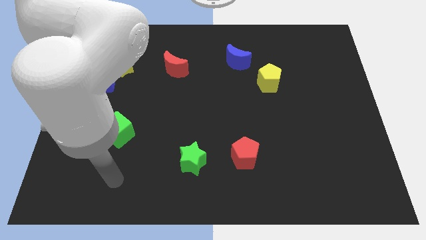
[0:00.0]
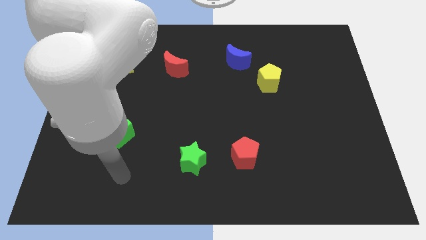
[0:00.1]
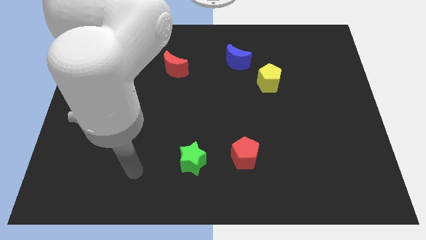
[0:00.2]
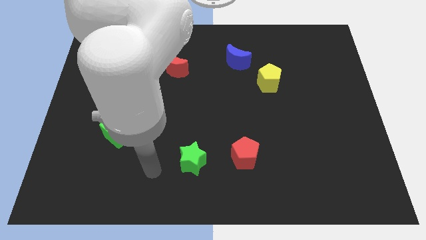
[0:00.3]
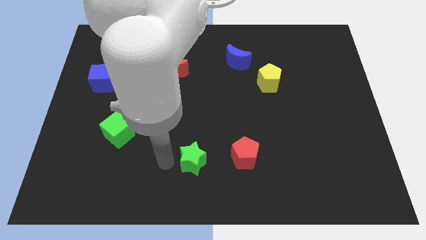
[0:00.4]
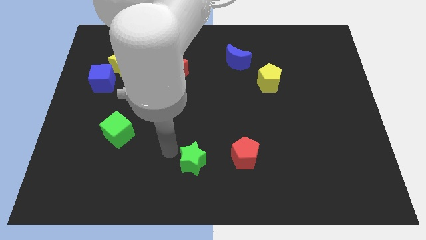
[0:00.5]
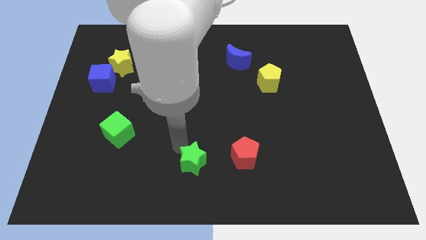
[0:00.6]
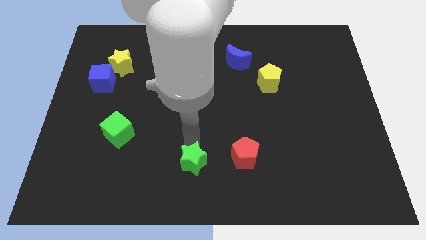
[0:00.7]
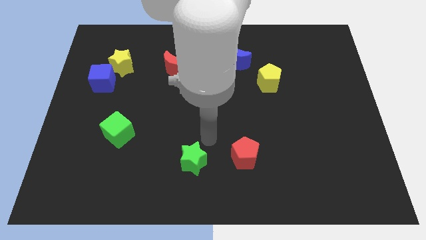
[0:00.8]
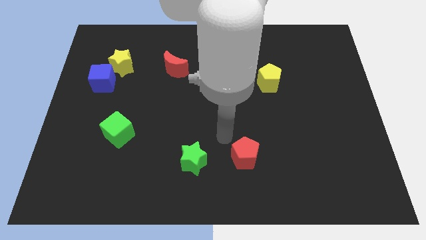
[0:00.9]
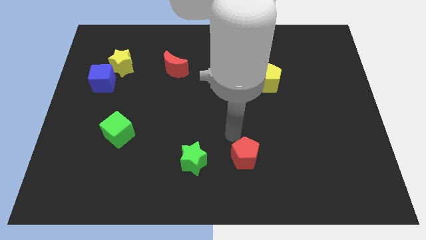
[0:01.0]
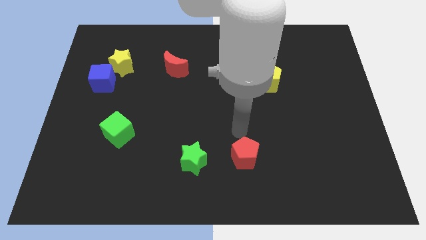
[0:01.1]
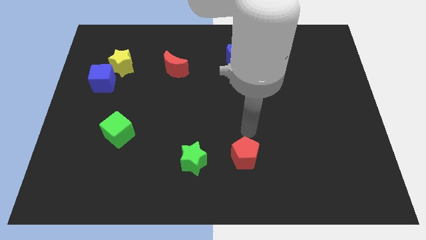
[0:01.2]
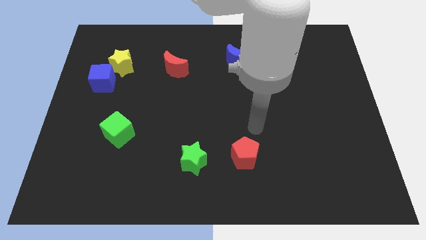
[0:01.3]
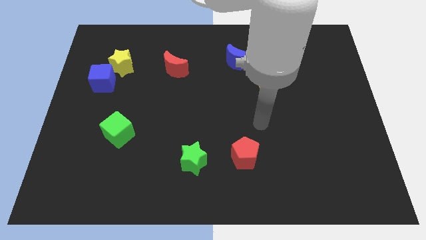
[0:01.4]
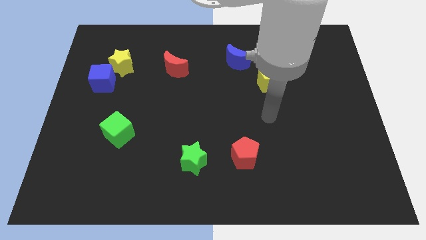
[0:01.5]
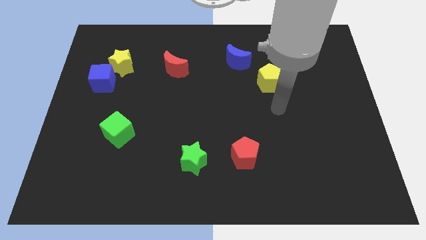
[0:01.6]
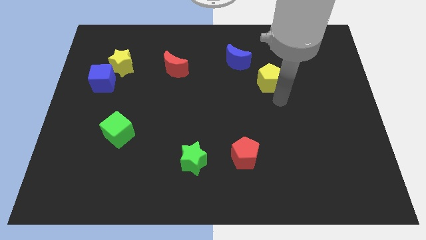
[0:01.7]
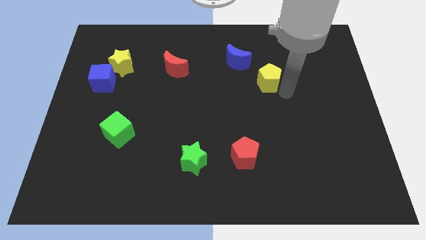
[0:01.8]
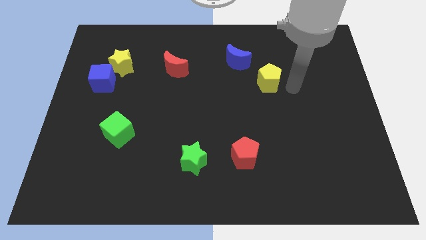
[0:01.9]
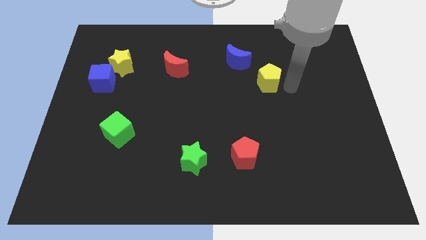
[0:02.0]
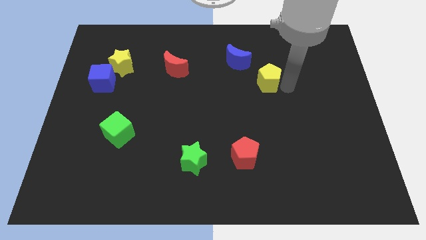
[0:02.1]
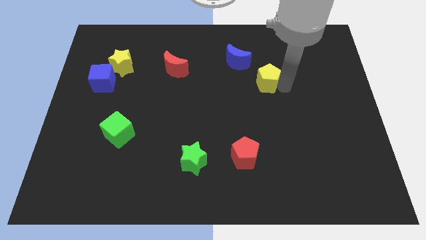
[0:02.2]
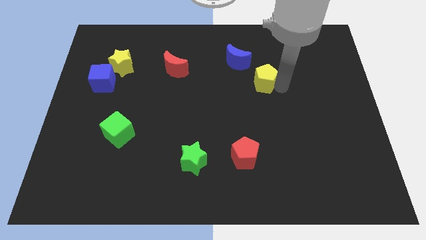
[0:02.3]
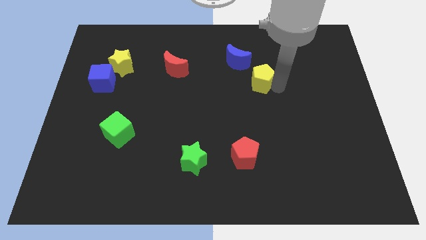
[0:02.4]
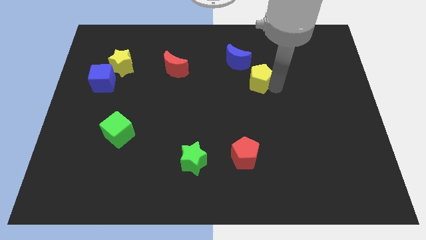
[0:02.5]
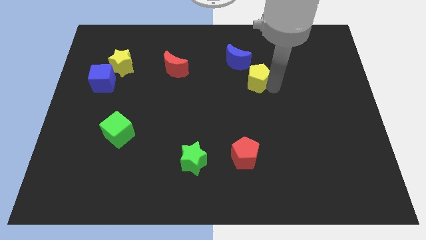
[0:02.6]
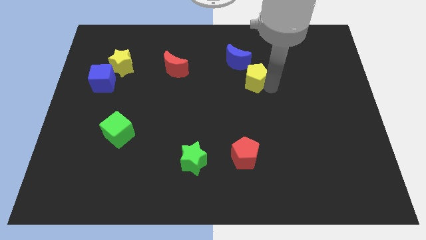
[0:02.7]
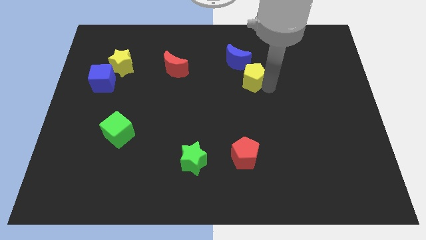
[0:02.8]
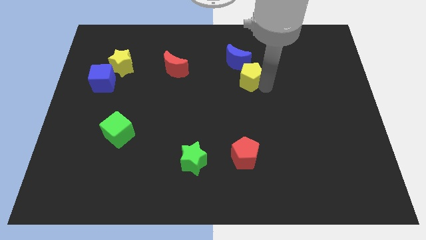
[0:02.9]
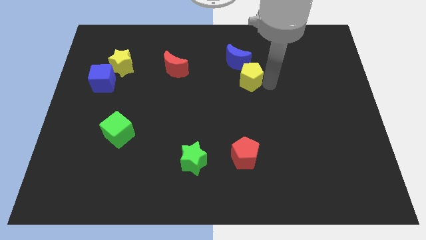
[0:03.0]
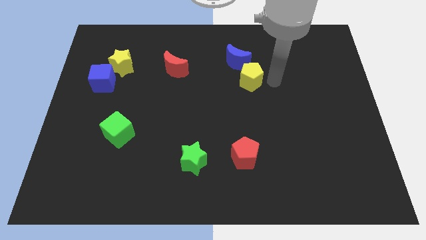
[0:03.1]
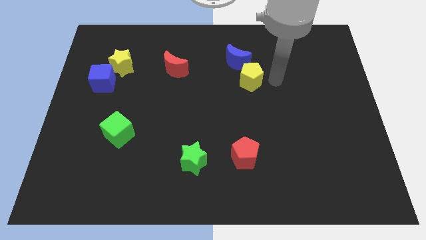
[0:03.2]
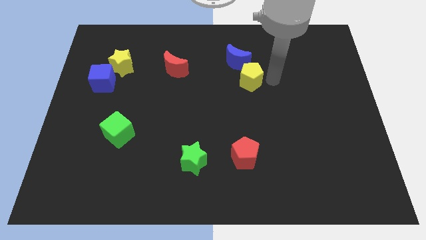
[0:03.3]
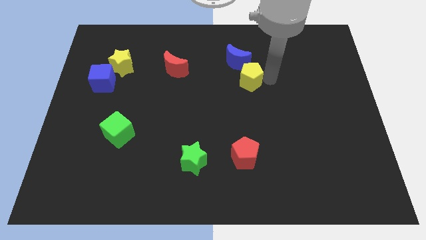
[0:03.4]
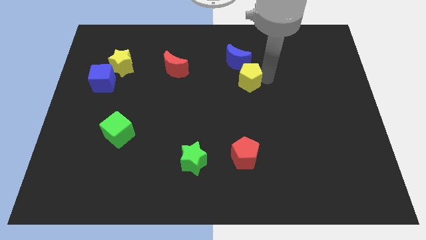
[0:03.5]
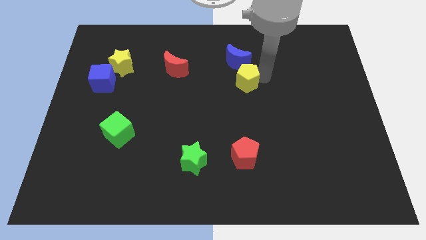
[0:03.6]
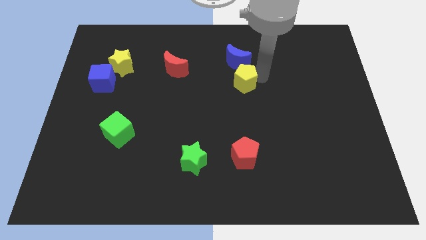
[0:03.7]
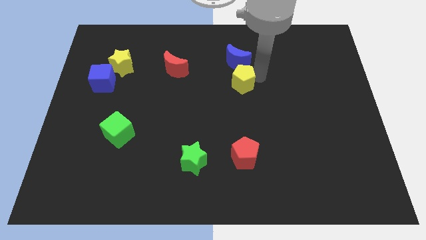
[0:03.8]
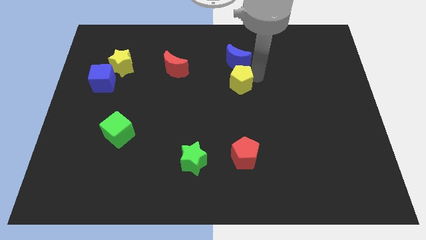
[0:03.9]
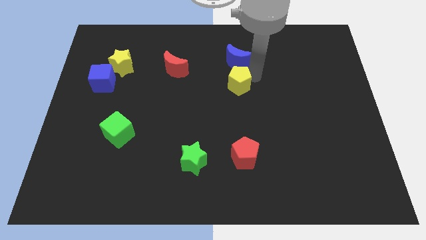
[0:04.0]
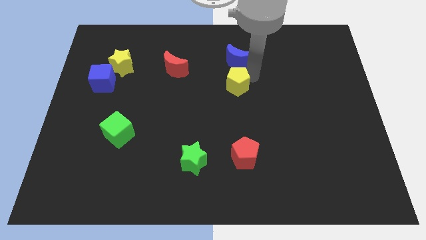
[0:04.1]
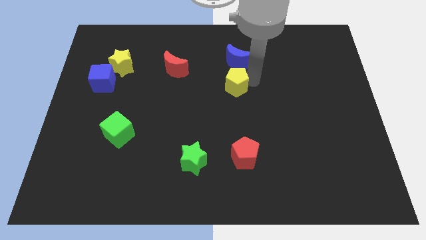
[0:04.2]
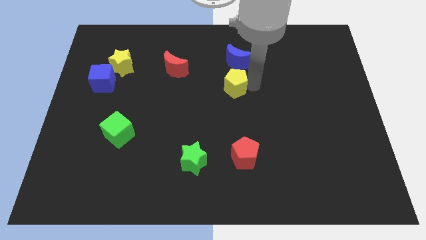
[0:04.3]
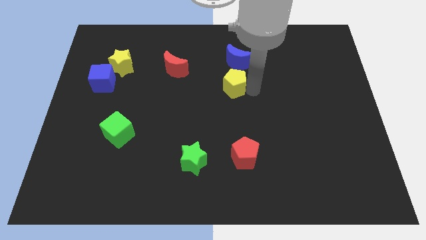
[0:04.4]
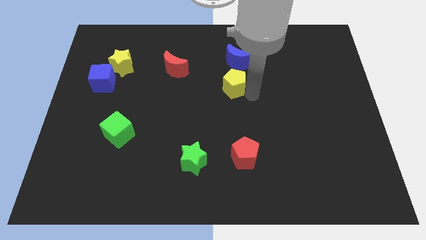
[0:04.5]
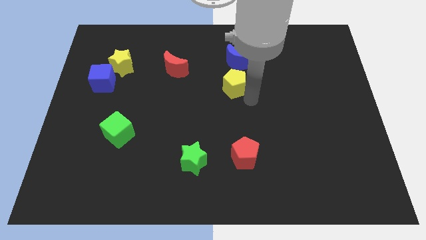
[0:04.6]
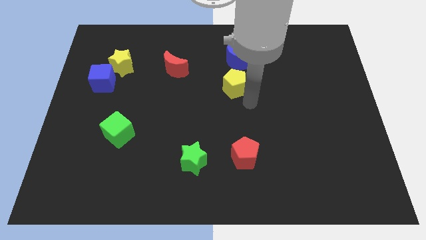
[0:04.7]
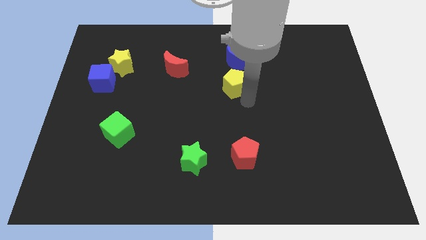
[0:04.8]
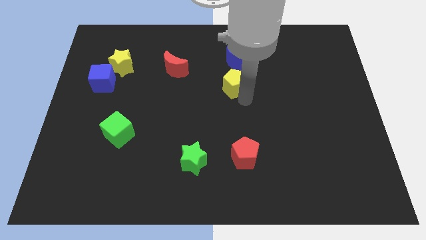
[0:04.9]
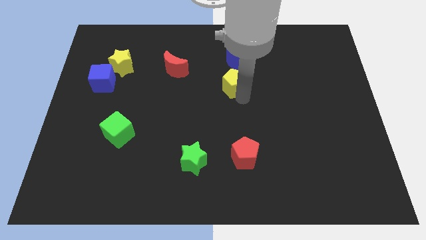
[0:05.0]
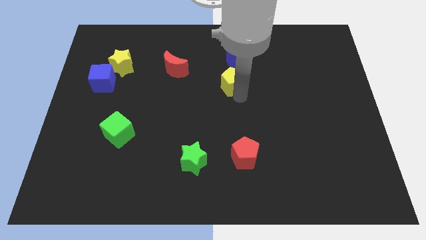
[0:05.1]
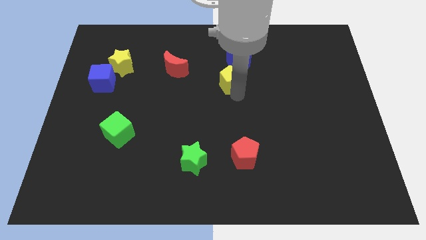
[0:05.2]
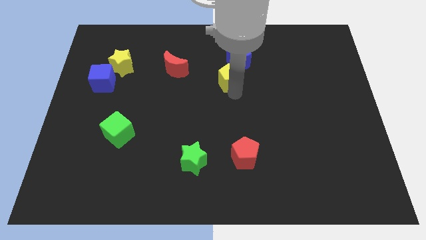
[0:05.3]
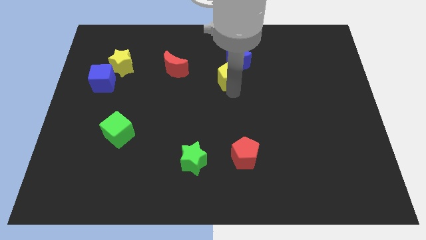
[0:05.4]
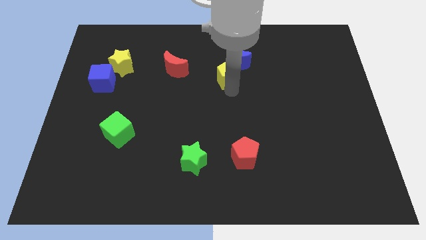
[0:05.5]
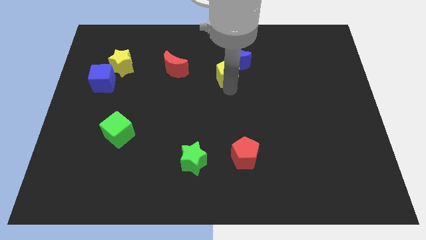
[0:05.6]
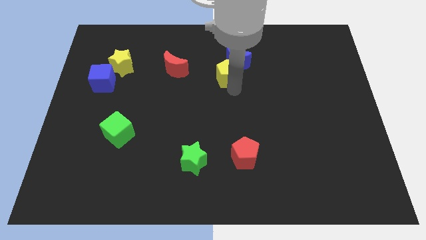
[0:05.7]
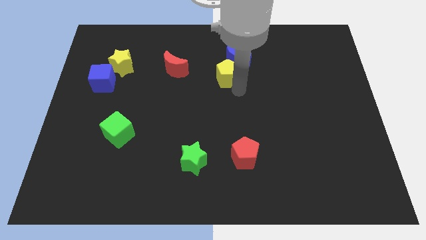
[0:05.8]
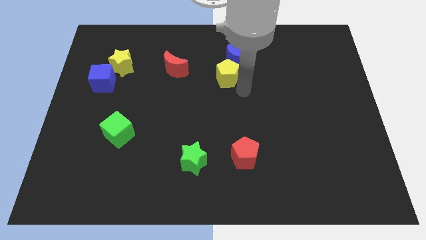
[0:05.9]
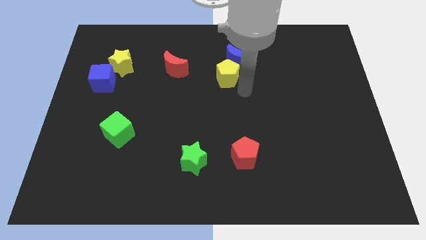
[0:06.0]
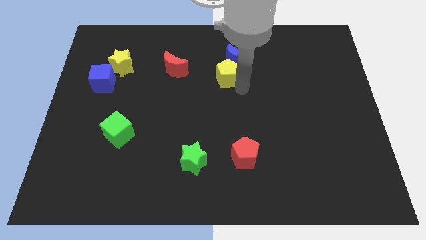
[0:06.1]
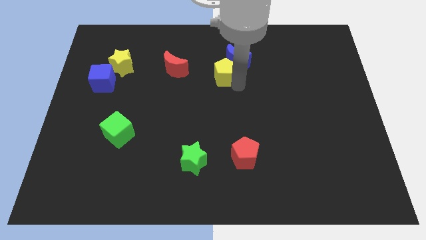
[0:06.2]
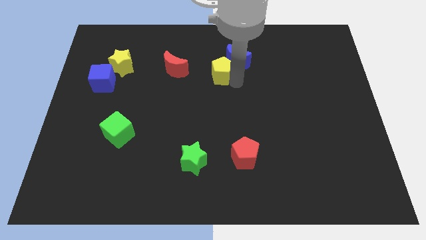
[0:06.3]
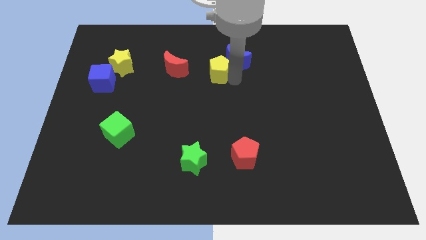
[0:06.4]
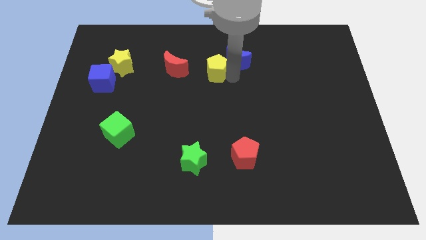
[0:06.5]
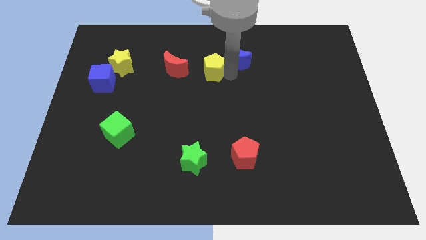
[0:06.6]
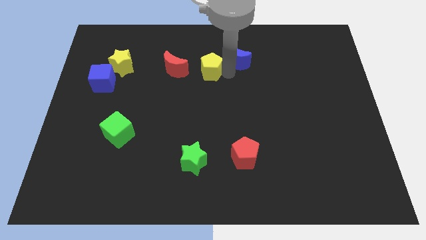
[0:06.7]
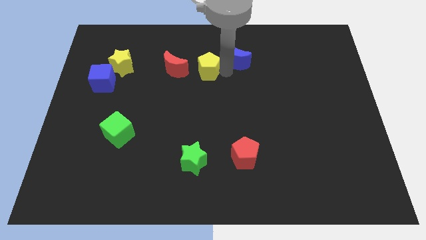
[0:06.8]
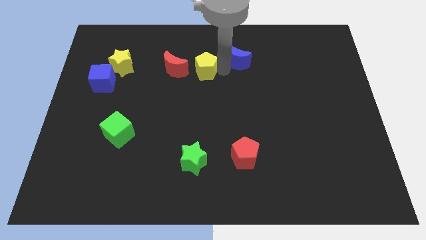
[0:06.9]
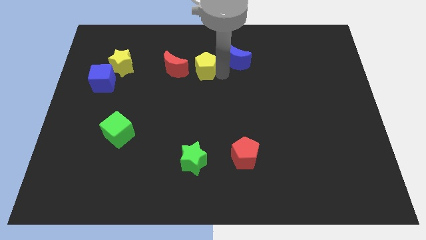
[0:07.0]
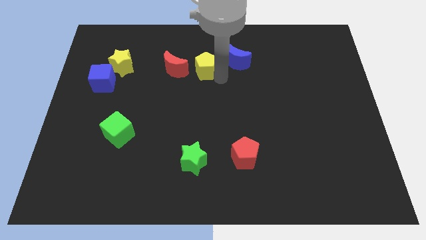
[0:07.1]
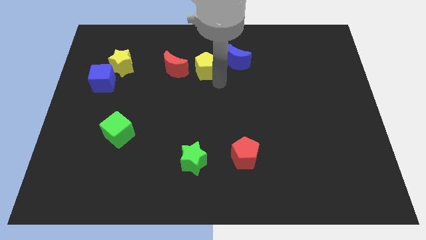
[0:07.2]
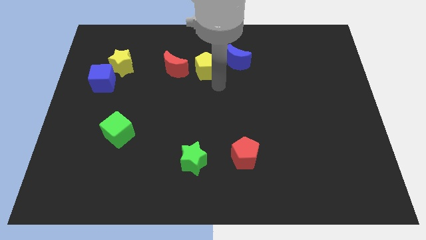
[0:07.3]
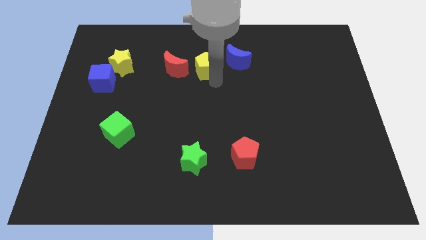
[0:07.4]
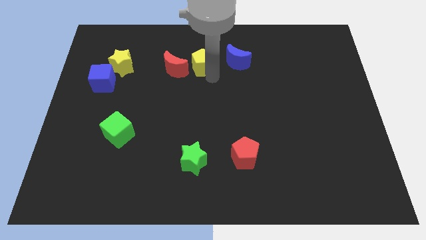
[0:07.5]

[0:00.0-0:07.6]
push the yellow pentagon to the top right of the red moon
